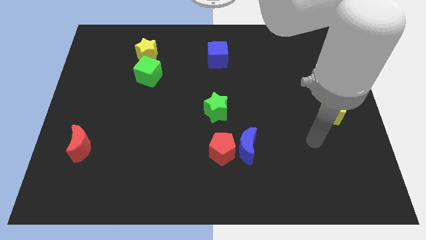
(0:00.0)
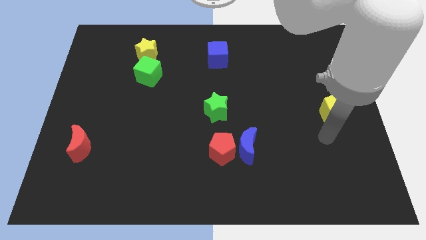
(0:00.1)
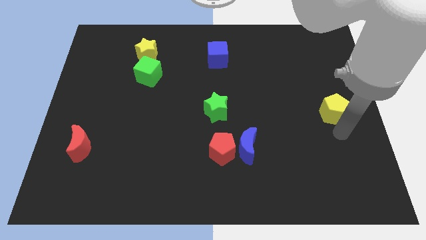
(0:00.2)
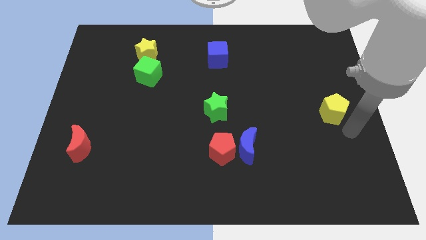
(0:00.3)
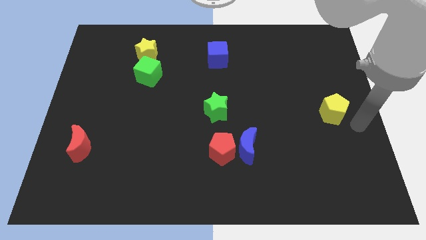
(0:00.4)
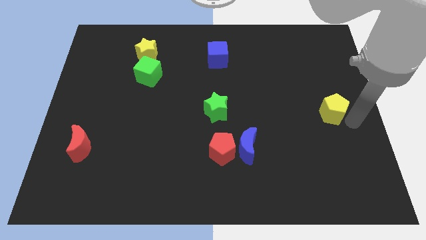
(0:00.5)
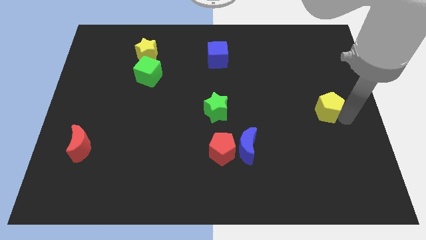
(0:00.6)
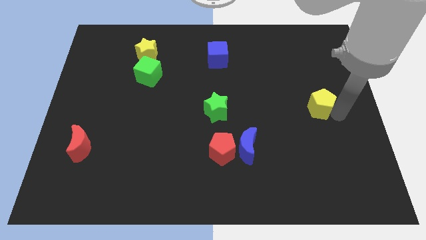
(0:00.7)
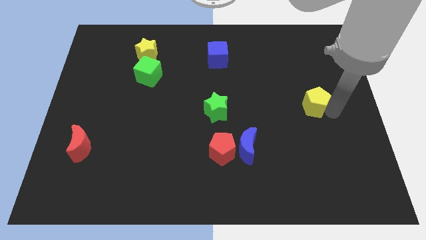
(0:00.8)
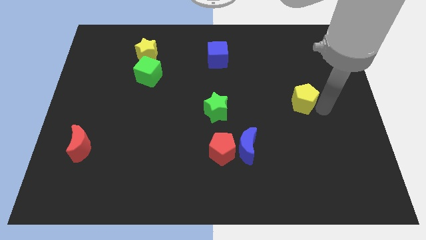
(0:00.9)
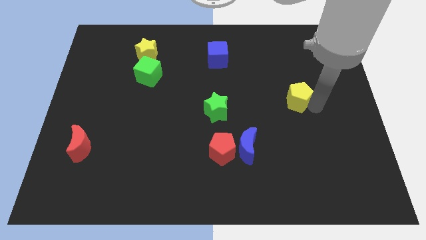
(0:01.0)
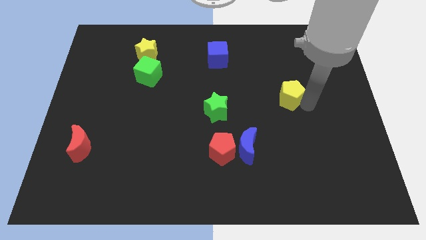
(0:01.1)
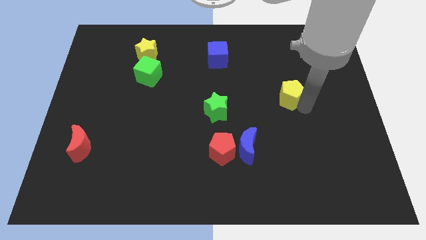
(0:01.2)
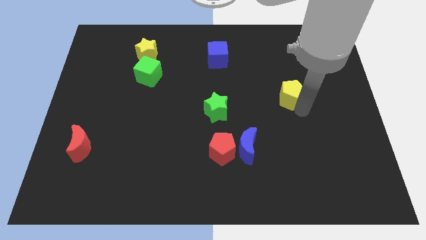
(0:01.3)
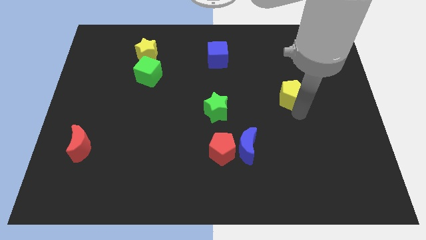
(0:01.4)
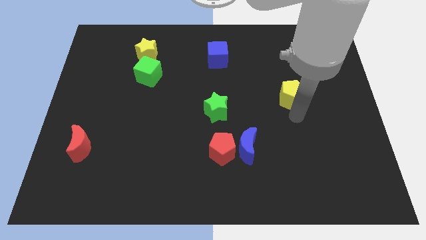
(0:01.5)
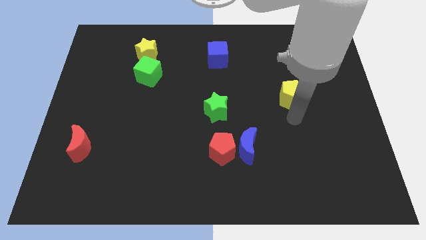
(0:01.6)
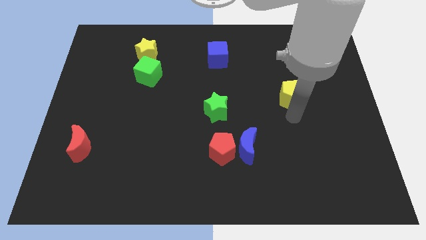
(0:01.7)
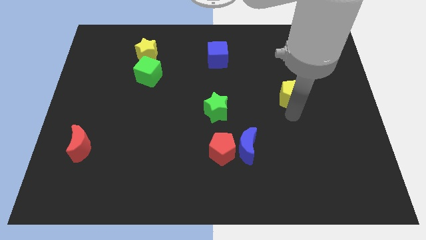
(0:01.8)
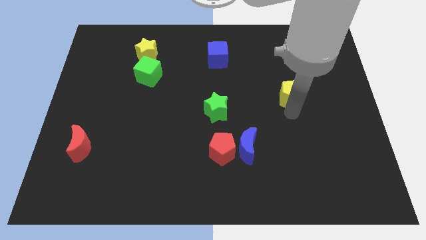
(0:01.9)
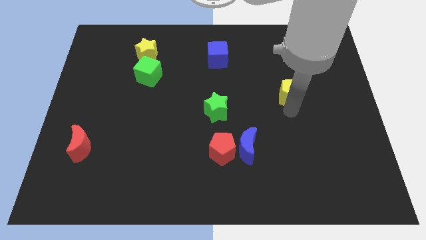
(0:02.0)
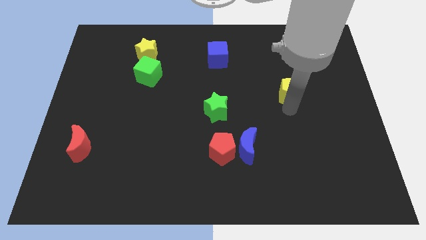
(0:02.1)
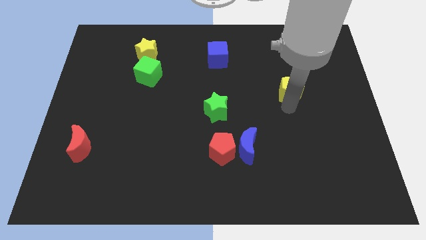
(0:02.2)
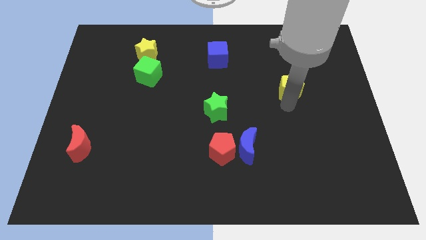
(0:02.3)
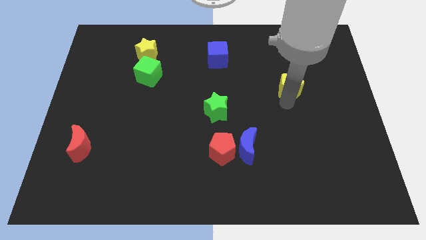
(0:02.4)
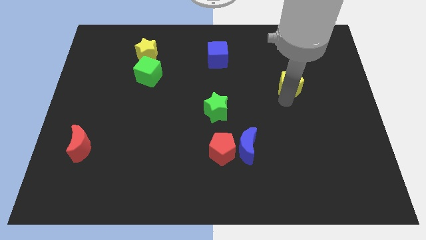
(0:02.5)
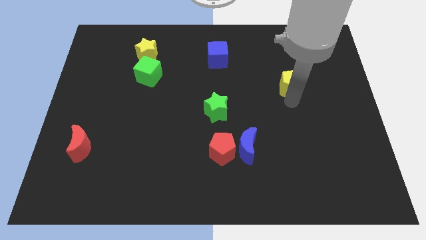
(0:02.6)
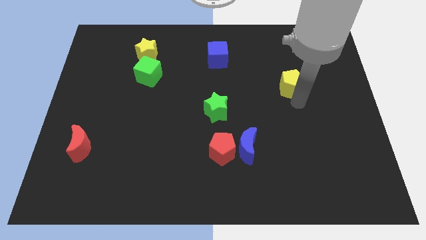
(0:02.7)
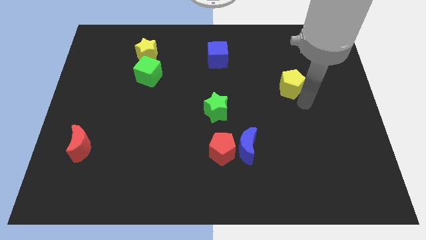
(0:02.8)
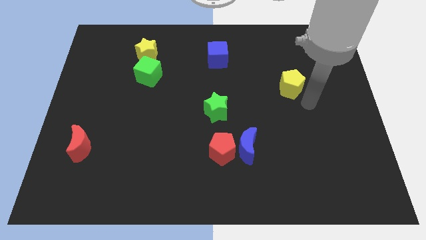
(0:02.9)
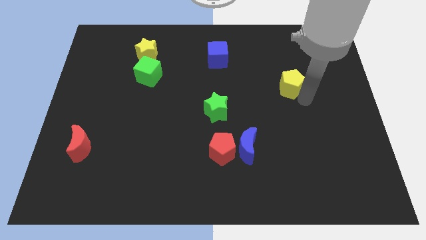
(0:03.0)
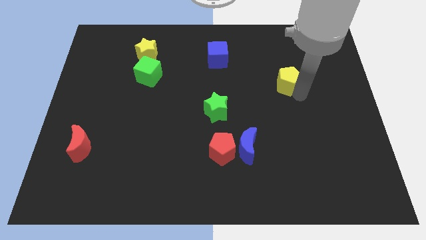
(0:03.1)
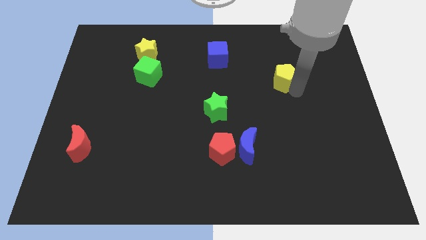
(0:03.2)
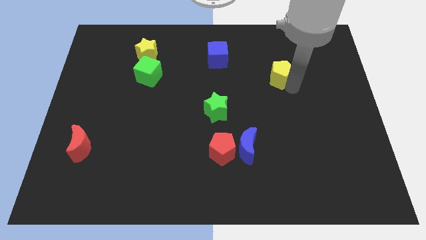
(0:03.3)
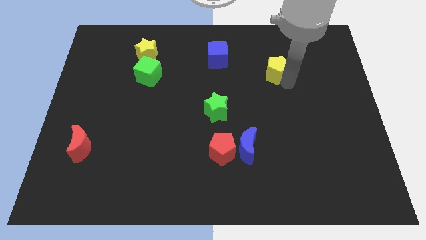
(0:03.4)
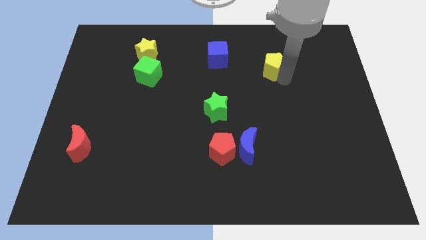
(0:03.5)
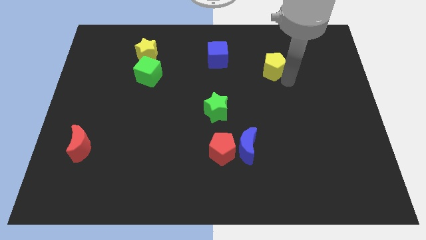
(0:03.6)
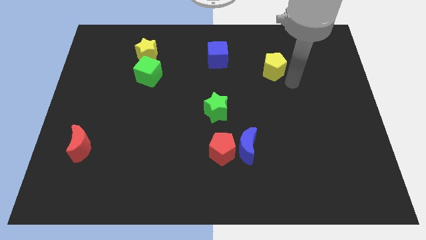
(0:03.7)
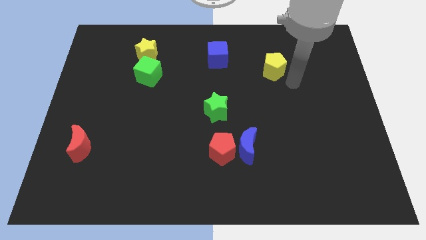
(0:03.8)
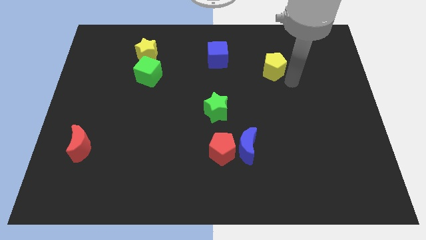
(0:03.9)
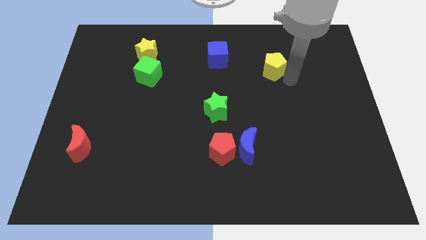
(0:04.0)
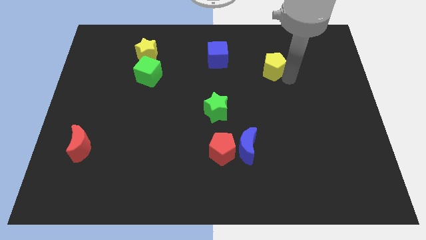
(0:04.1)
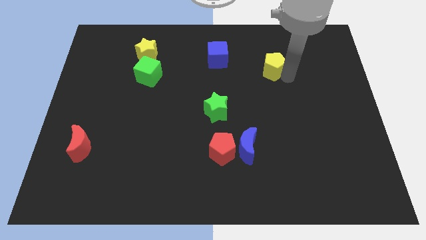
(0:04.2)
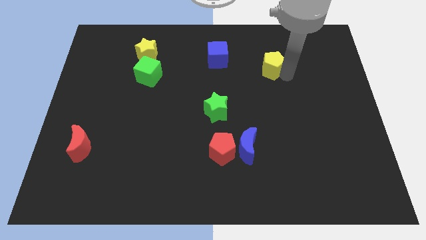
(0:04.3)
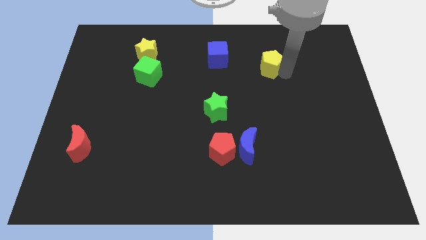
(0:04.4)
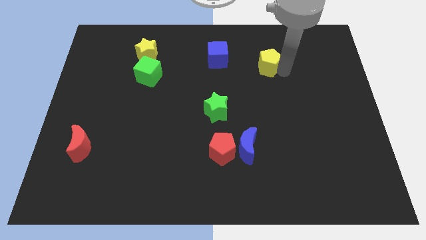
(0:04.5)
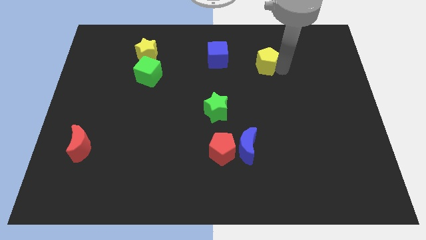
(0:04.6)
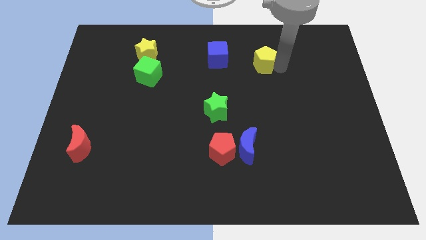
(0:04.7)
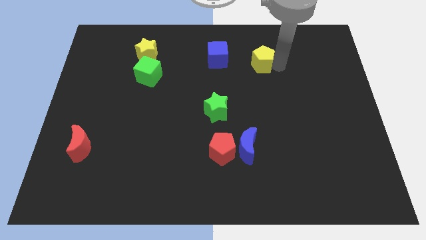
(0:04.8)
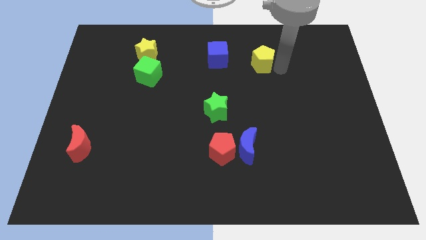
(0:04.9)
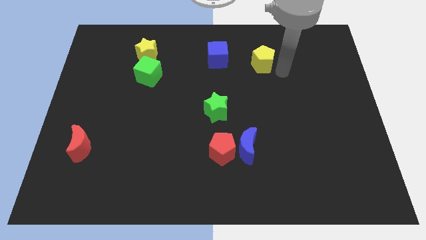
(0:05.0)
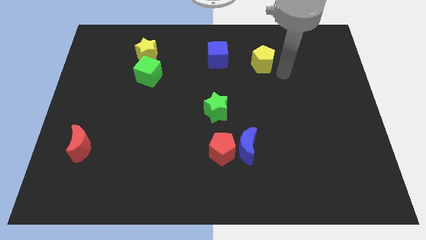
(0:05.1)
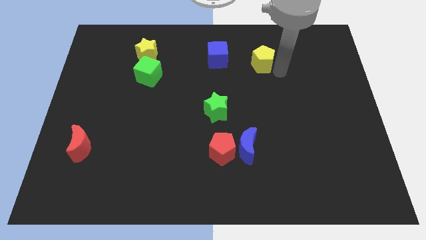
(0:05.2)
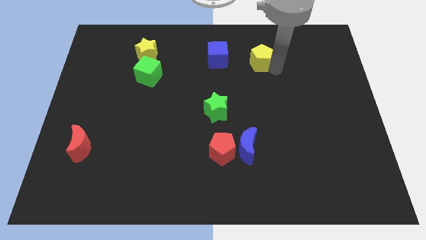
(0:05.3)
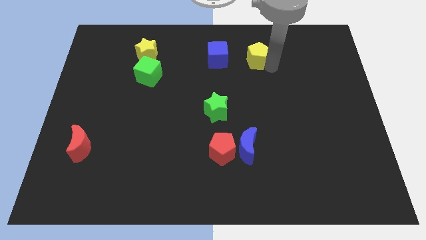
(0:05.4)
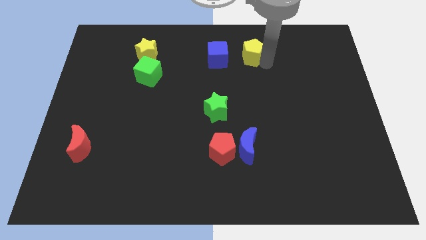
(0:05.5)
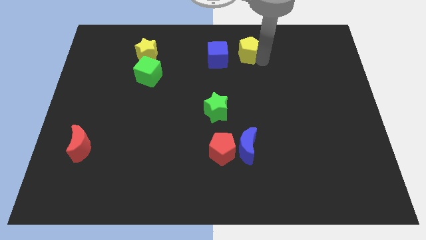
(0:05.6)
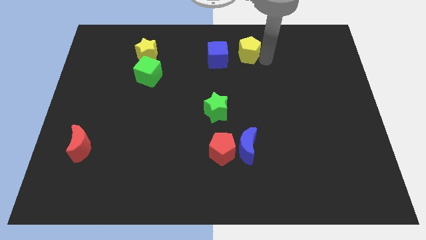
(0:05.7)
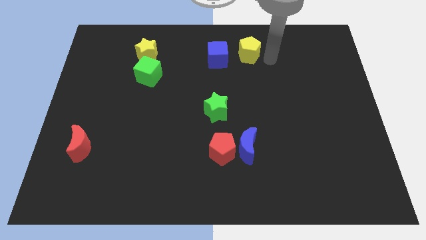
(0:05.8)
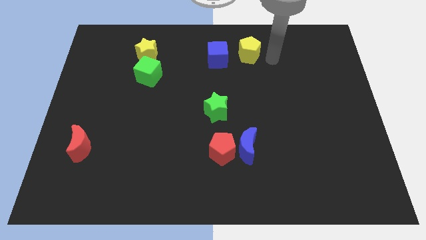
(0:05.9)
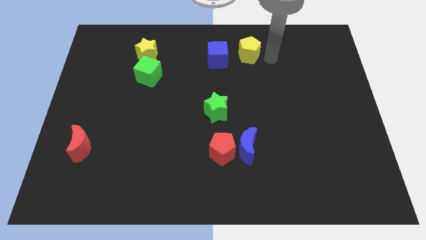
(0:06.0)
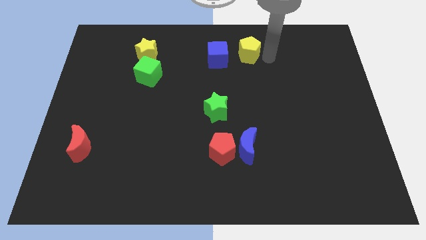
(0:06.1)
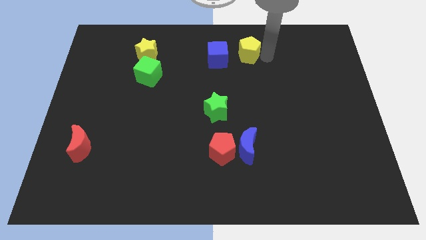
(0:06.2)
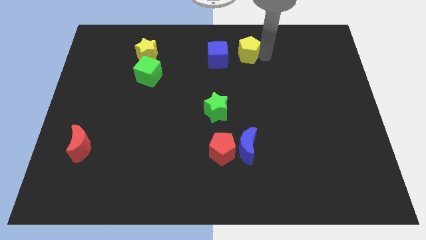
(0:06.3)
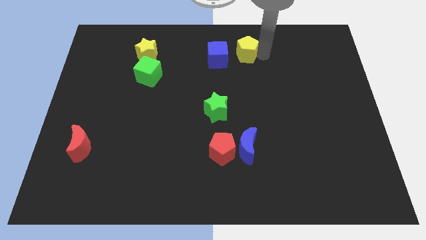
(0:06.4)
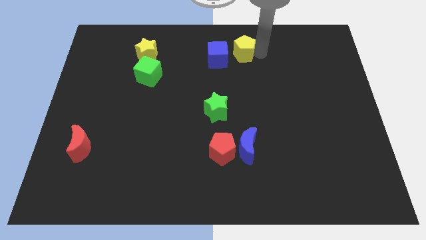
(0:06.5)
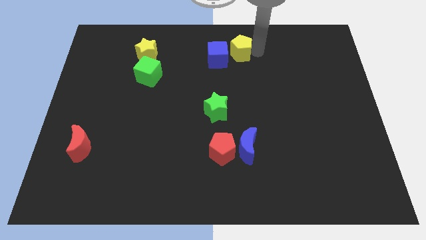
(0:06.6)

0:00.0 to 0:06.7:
slide the yellow pentagon to the top
